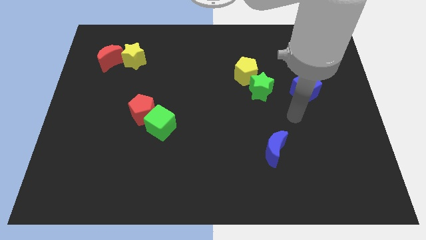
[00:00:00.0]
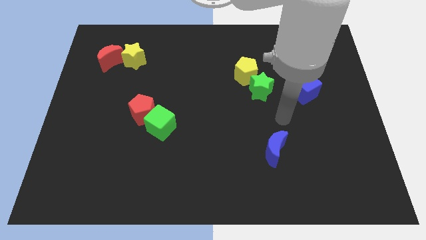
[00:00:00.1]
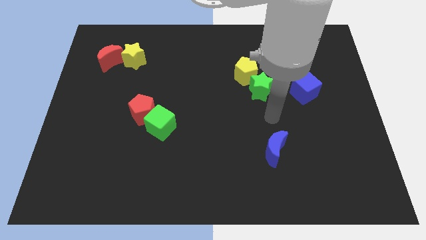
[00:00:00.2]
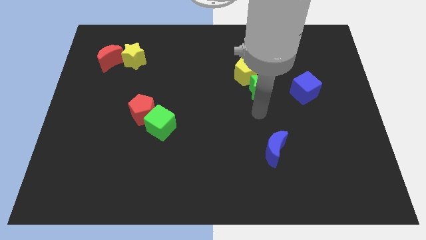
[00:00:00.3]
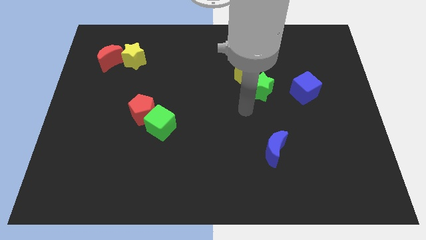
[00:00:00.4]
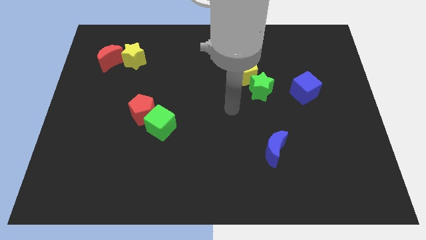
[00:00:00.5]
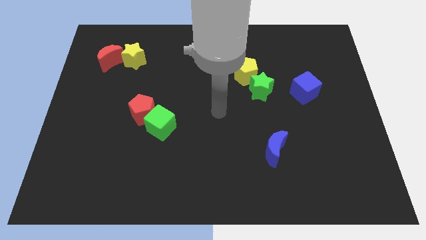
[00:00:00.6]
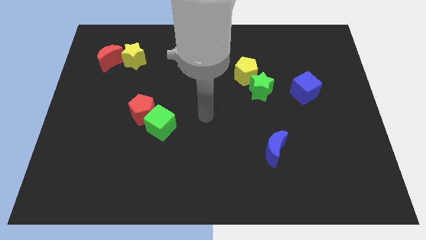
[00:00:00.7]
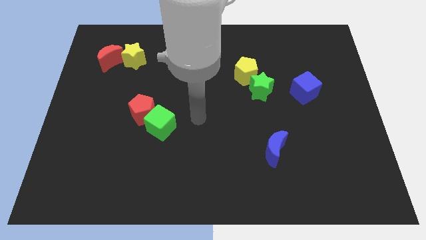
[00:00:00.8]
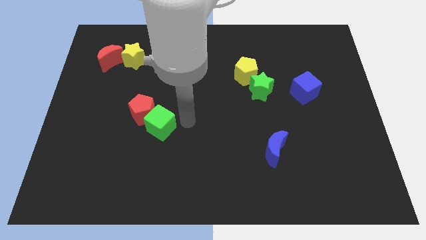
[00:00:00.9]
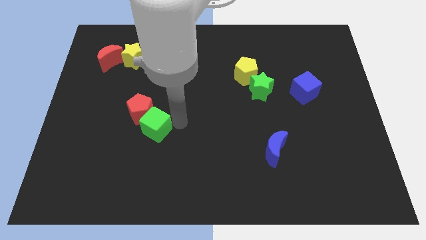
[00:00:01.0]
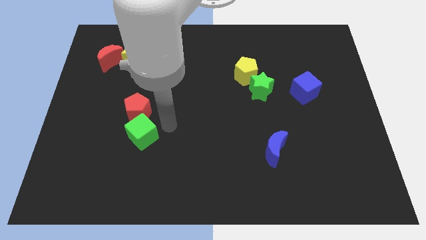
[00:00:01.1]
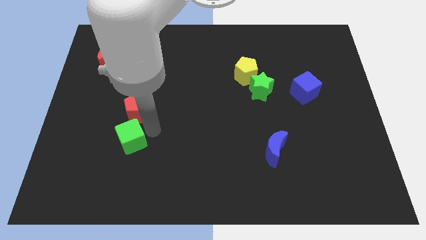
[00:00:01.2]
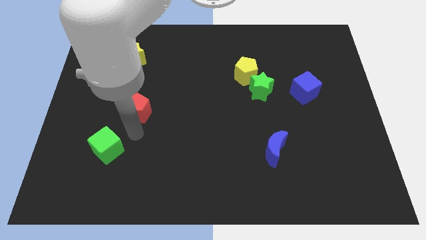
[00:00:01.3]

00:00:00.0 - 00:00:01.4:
pull the red pentagon apart from the green cube

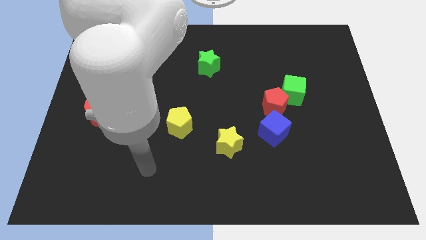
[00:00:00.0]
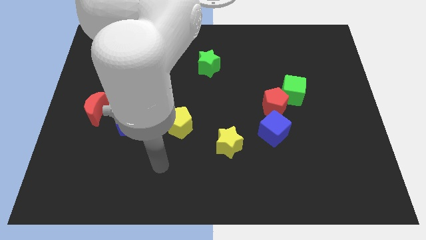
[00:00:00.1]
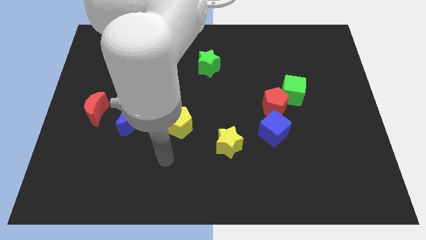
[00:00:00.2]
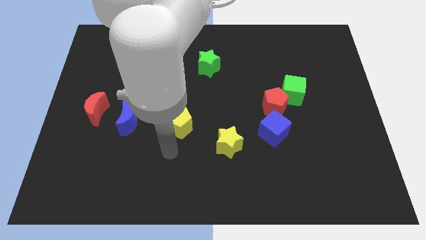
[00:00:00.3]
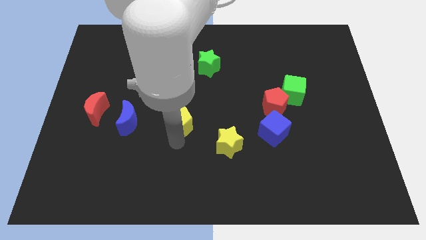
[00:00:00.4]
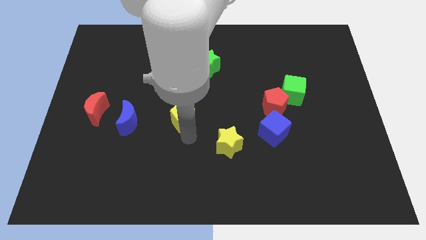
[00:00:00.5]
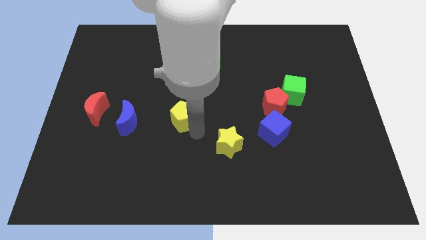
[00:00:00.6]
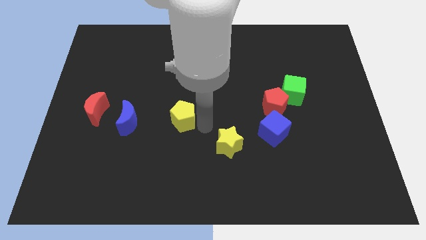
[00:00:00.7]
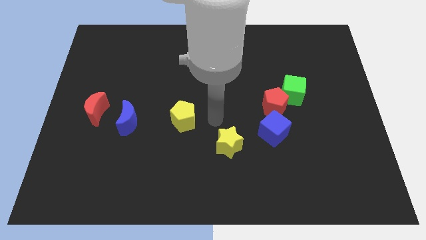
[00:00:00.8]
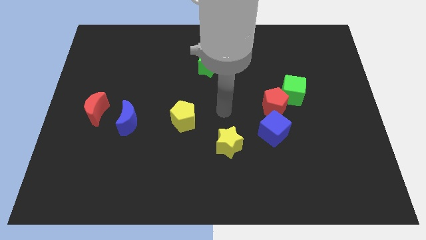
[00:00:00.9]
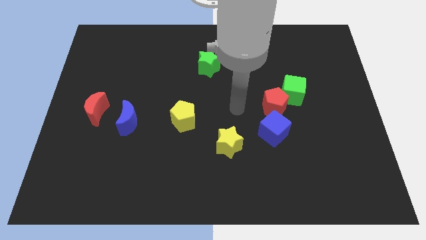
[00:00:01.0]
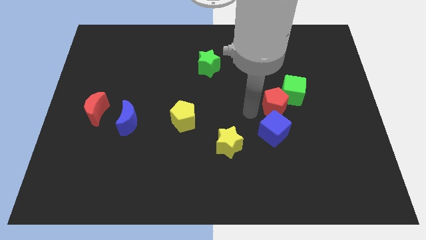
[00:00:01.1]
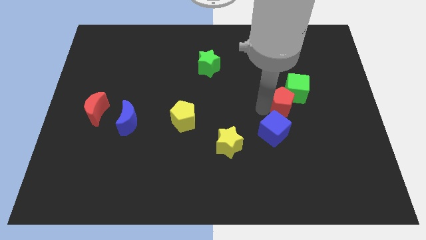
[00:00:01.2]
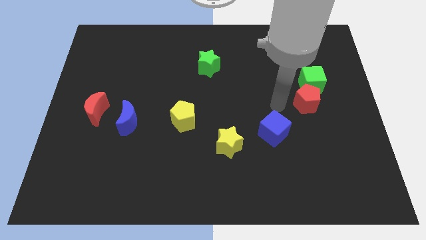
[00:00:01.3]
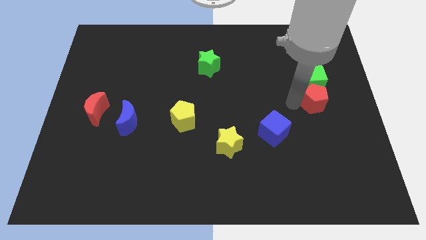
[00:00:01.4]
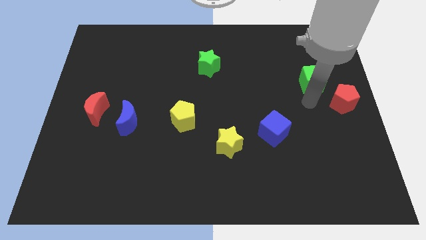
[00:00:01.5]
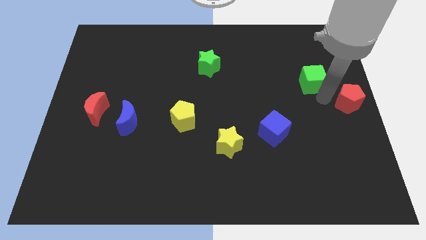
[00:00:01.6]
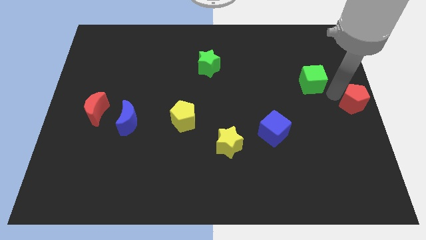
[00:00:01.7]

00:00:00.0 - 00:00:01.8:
move the green cube away from the red pentagon

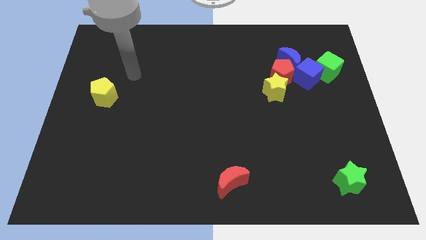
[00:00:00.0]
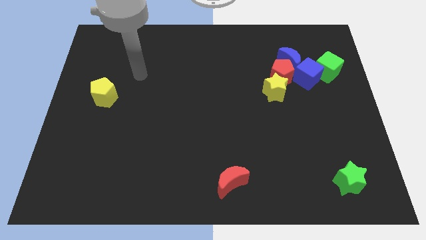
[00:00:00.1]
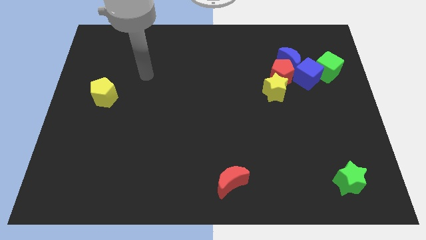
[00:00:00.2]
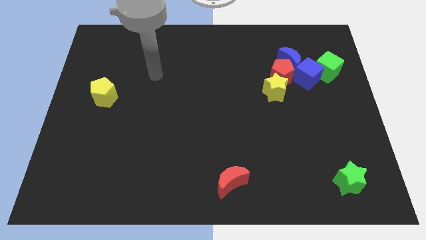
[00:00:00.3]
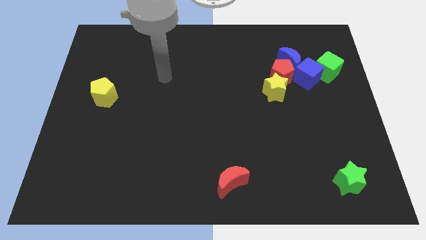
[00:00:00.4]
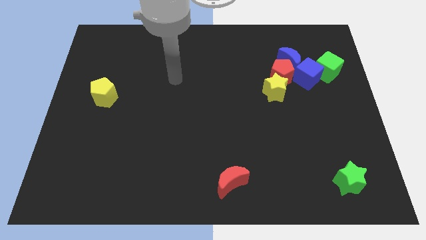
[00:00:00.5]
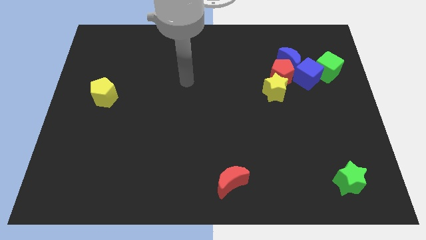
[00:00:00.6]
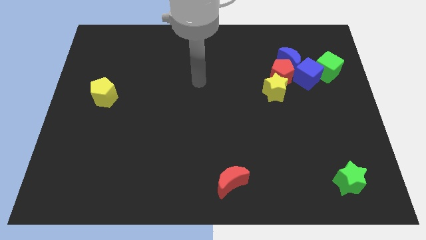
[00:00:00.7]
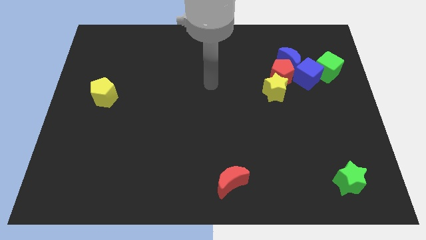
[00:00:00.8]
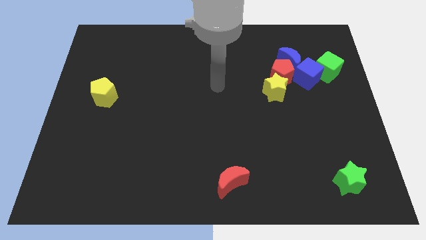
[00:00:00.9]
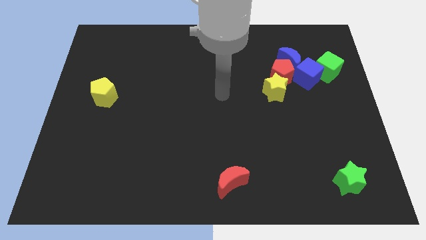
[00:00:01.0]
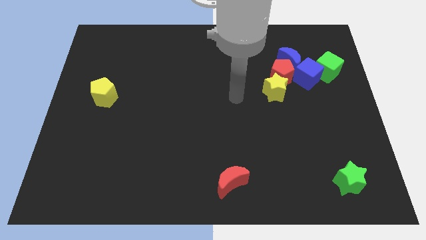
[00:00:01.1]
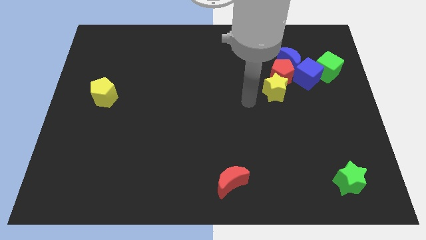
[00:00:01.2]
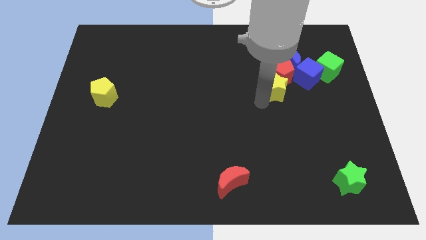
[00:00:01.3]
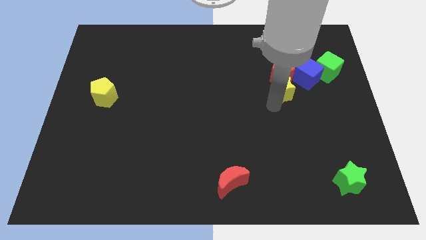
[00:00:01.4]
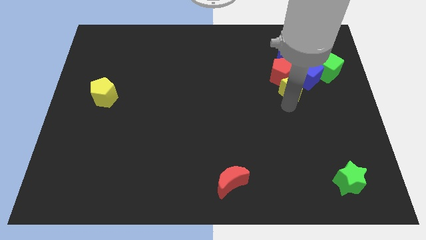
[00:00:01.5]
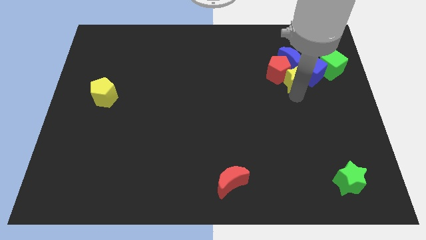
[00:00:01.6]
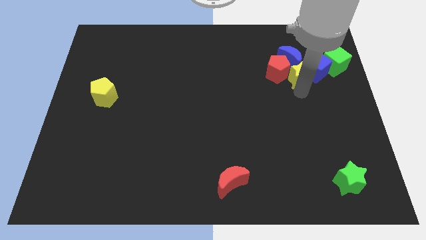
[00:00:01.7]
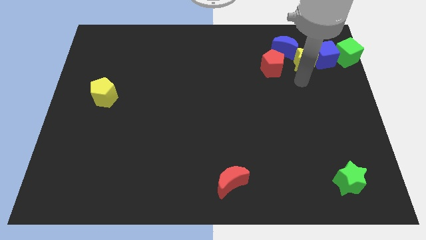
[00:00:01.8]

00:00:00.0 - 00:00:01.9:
separate the red pentagon from the clump

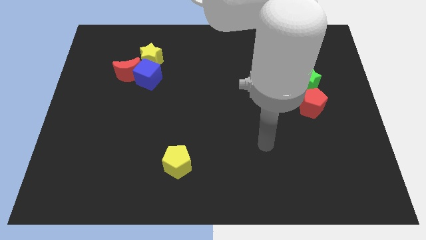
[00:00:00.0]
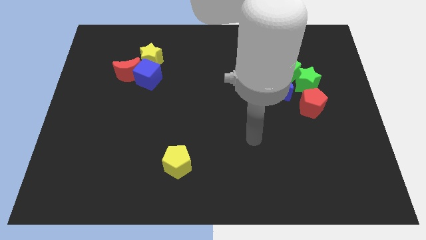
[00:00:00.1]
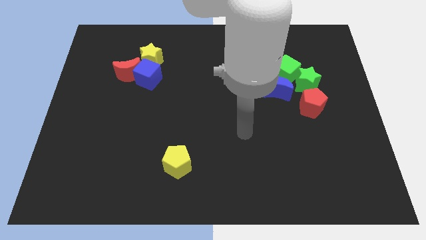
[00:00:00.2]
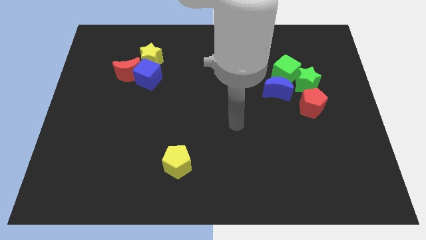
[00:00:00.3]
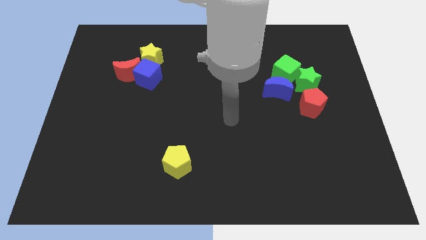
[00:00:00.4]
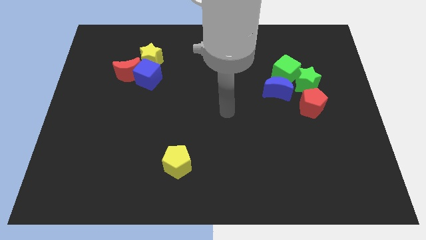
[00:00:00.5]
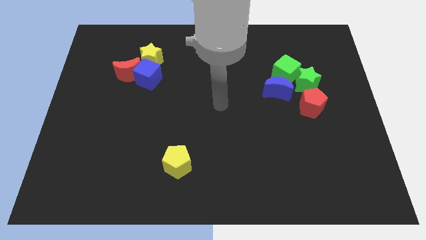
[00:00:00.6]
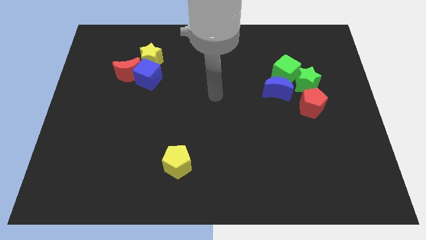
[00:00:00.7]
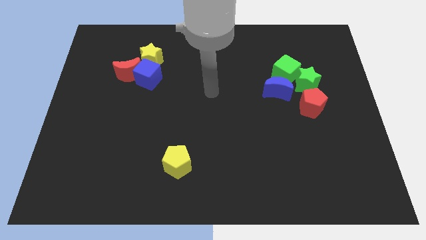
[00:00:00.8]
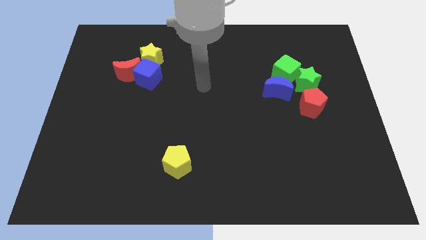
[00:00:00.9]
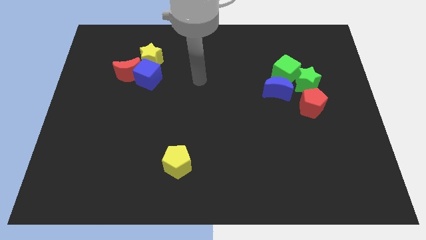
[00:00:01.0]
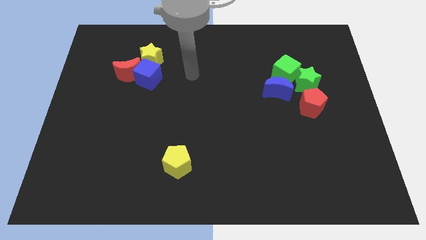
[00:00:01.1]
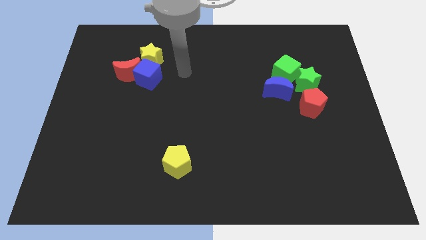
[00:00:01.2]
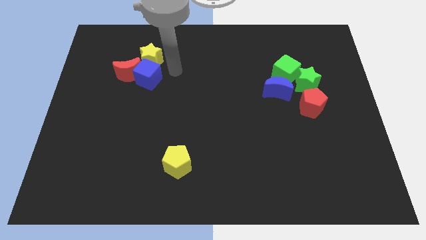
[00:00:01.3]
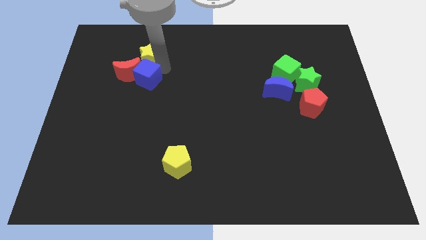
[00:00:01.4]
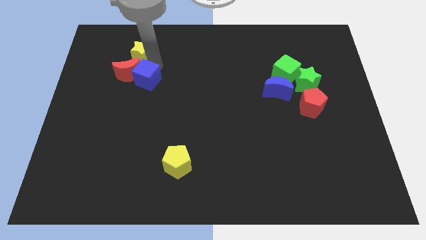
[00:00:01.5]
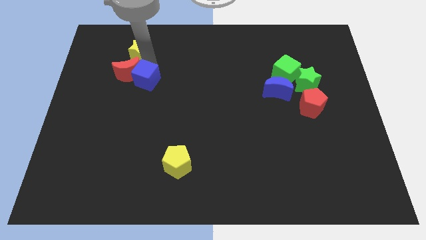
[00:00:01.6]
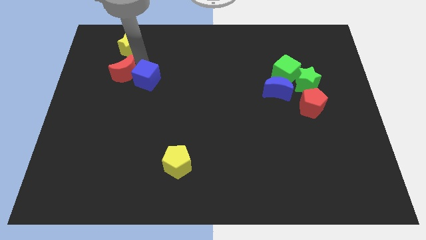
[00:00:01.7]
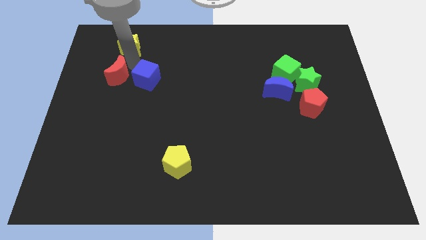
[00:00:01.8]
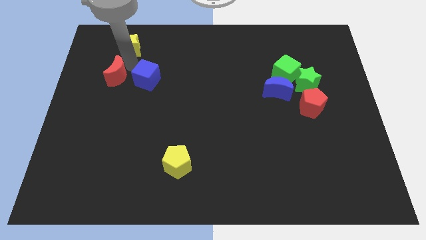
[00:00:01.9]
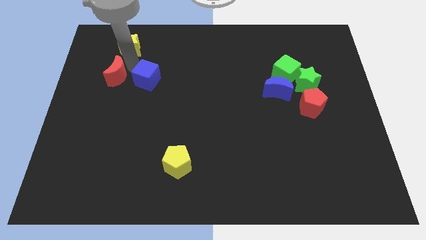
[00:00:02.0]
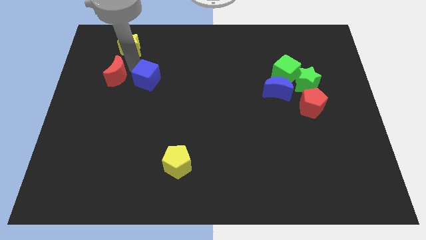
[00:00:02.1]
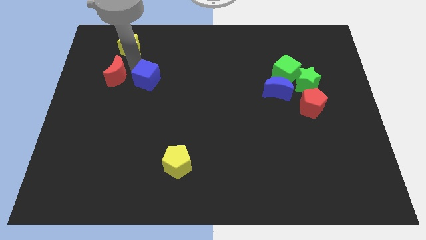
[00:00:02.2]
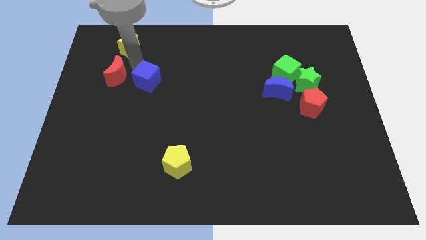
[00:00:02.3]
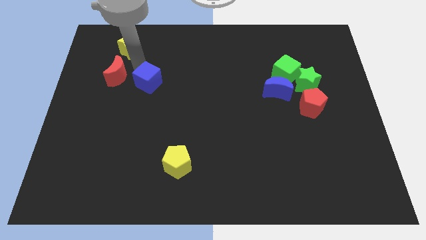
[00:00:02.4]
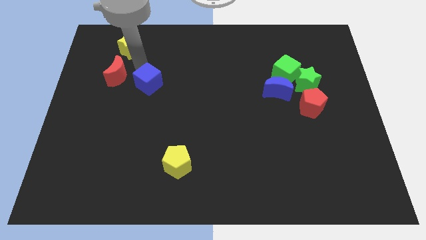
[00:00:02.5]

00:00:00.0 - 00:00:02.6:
separate the blue cube from the red moon and yellow star

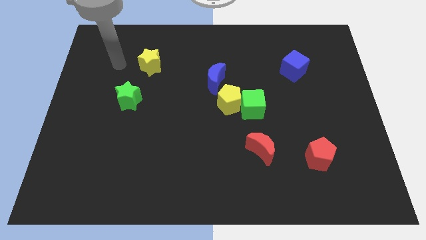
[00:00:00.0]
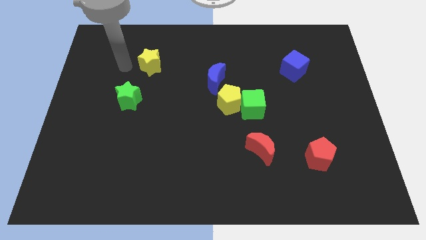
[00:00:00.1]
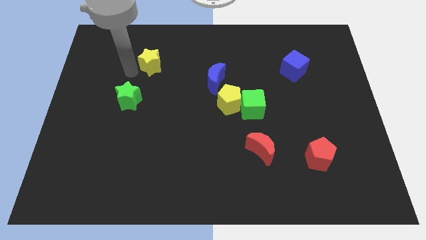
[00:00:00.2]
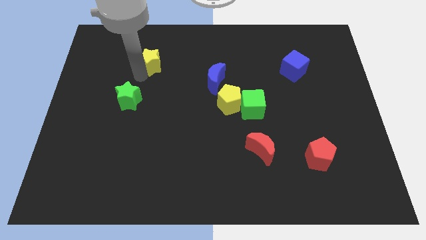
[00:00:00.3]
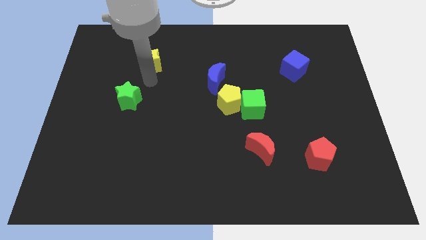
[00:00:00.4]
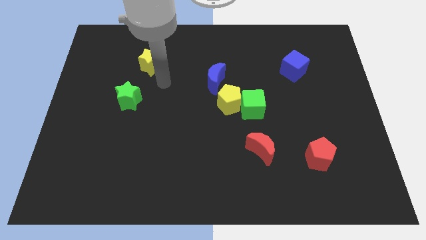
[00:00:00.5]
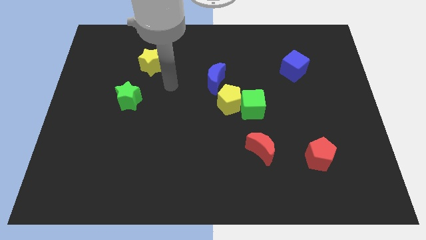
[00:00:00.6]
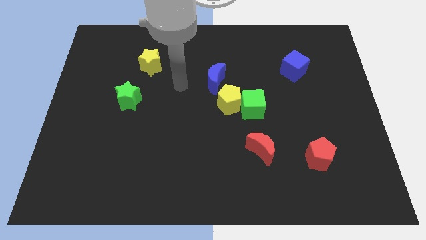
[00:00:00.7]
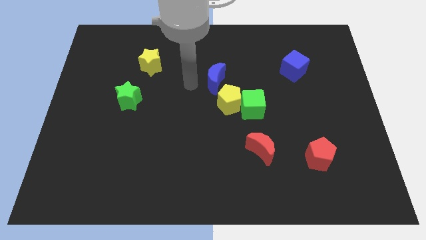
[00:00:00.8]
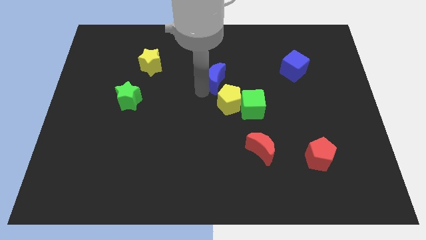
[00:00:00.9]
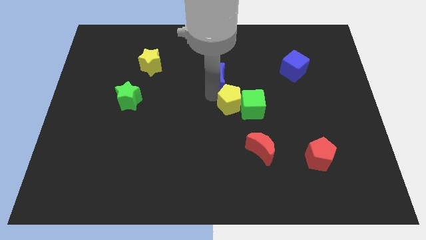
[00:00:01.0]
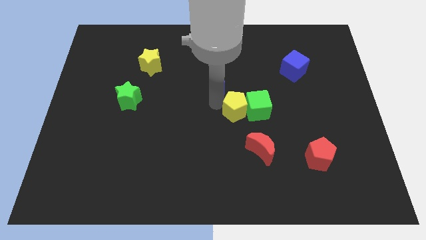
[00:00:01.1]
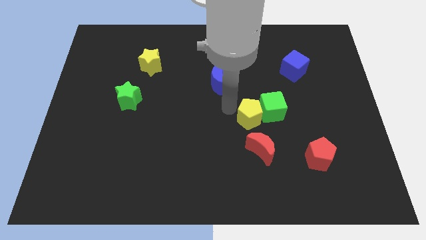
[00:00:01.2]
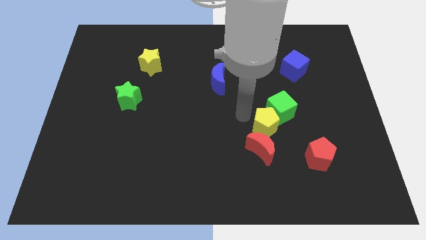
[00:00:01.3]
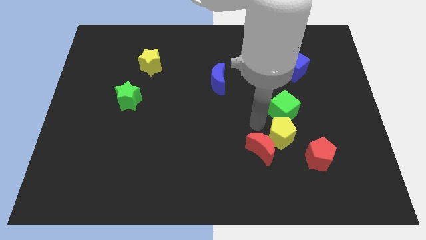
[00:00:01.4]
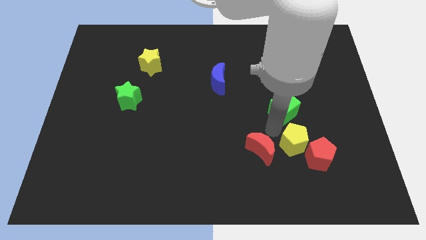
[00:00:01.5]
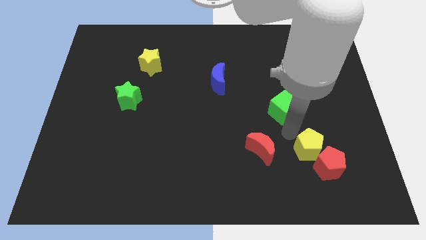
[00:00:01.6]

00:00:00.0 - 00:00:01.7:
move the green cube away from the yellow pentagon
